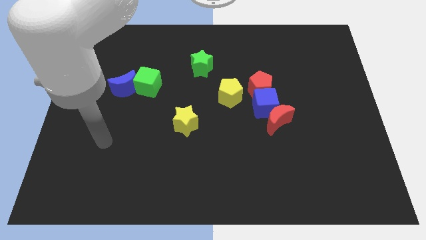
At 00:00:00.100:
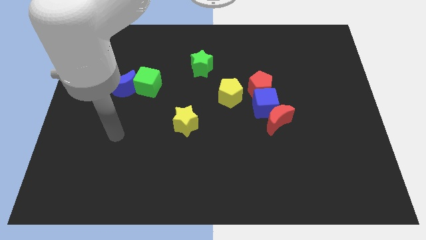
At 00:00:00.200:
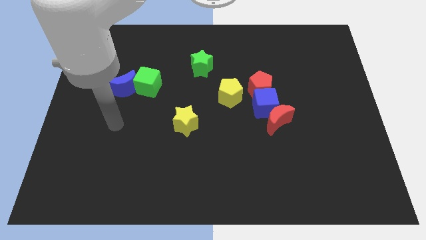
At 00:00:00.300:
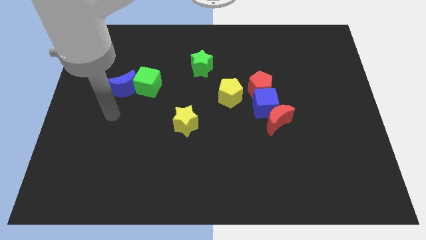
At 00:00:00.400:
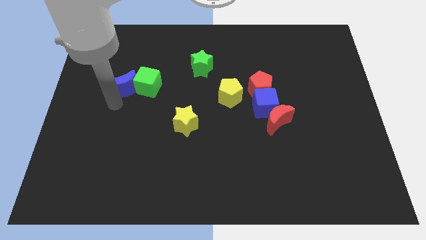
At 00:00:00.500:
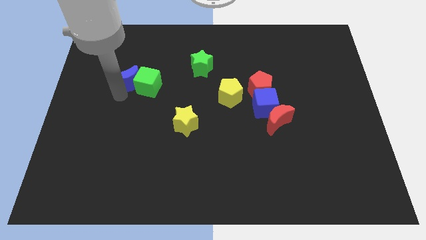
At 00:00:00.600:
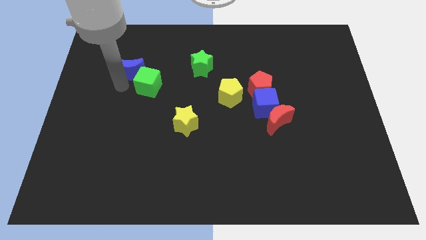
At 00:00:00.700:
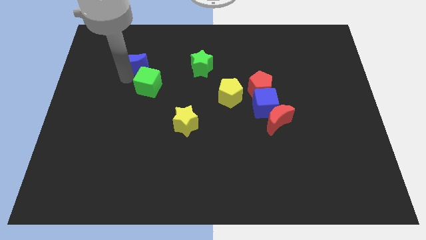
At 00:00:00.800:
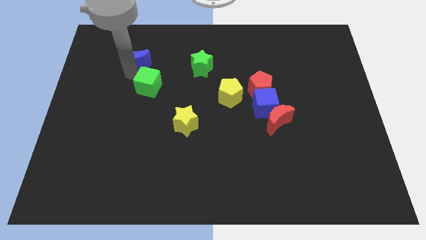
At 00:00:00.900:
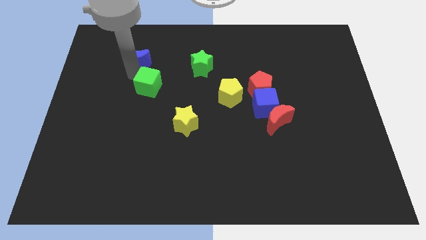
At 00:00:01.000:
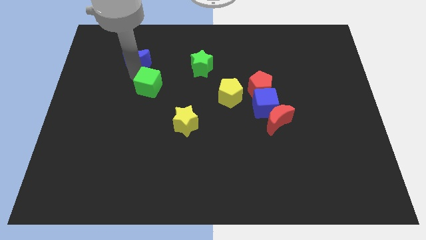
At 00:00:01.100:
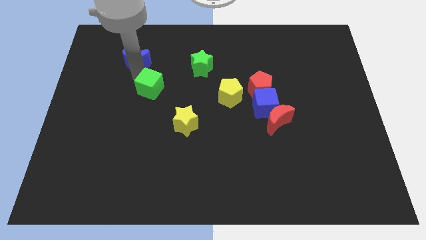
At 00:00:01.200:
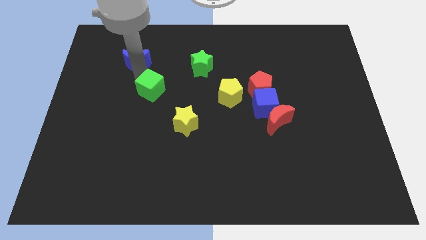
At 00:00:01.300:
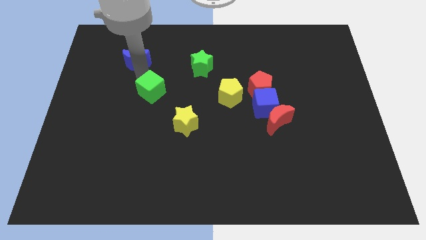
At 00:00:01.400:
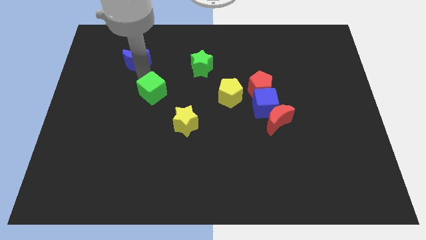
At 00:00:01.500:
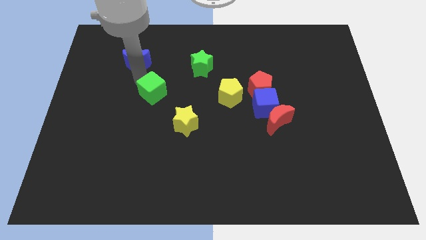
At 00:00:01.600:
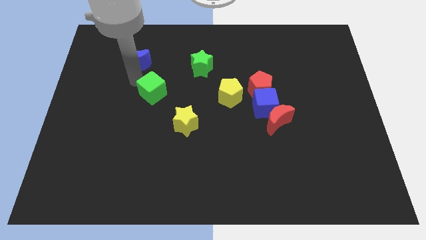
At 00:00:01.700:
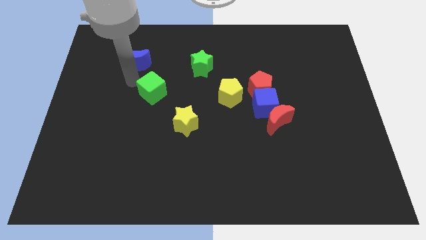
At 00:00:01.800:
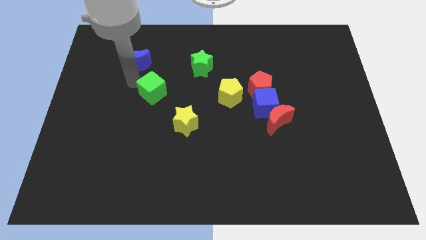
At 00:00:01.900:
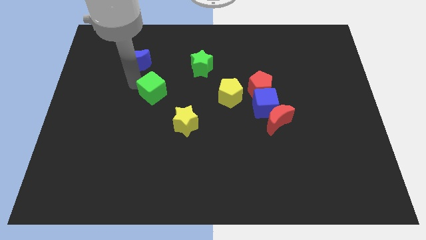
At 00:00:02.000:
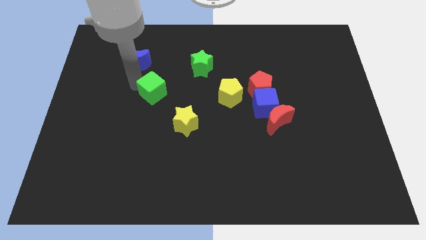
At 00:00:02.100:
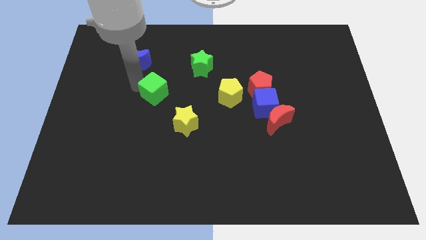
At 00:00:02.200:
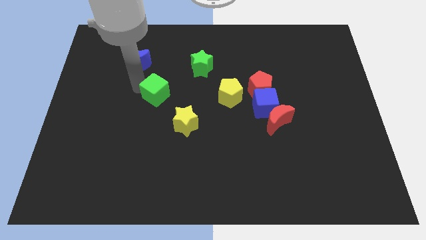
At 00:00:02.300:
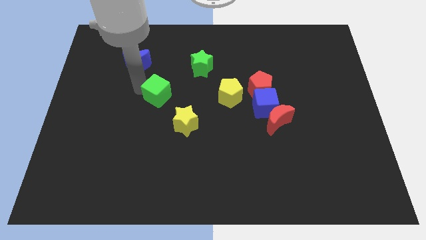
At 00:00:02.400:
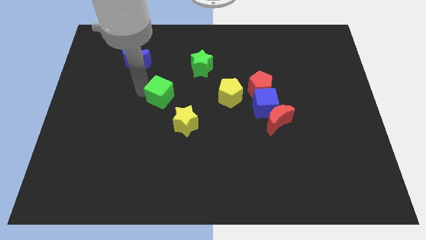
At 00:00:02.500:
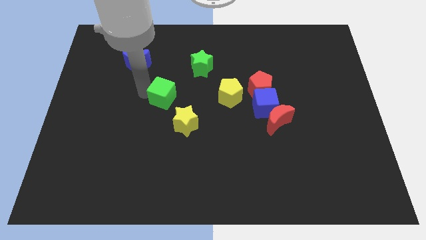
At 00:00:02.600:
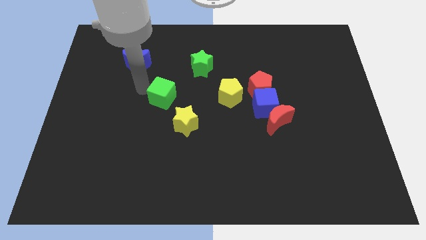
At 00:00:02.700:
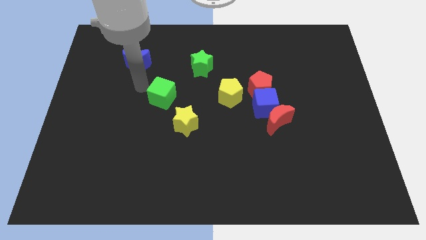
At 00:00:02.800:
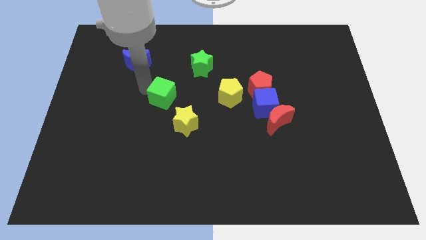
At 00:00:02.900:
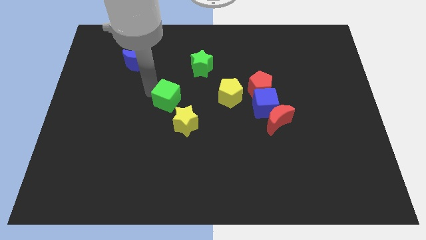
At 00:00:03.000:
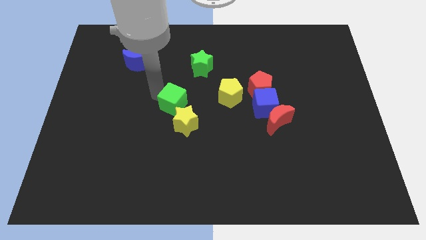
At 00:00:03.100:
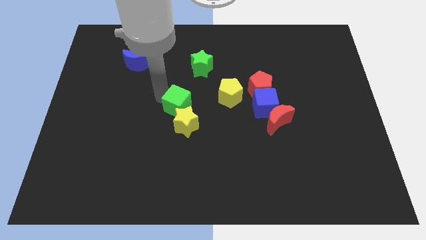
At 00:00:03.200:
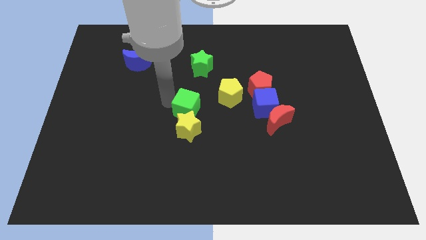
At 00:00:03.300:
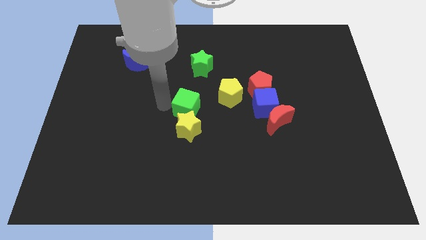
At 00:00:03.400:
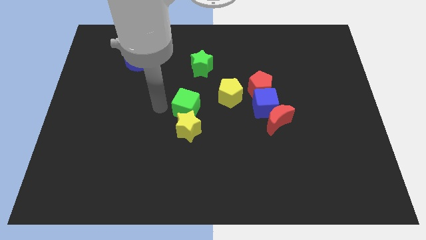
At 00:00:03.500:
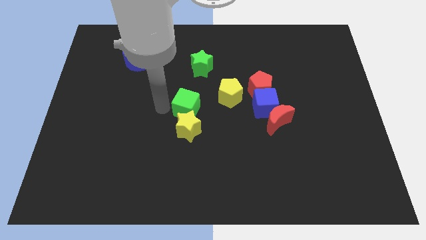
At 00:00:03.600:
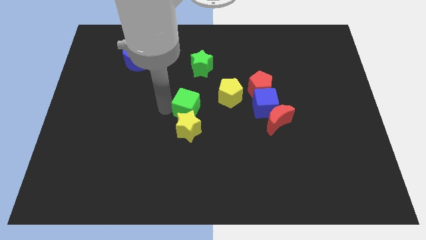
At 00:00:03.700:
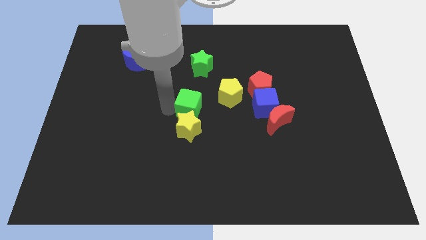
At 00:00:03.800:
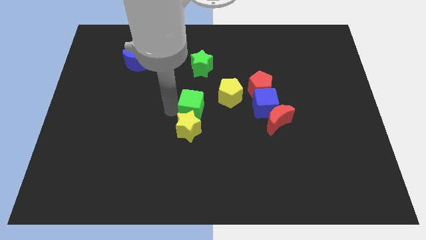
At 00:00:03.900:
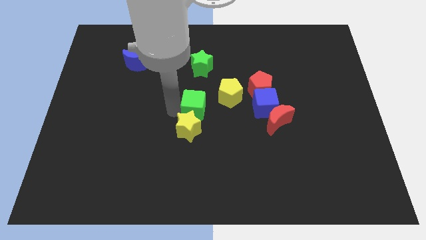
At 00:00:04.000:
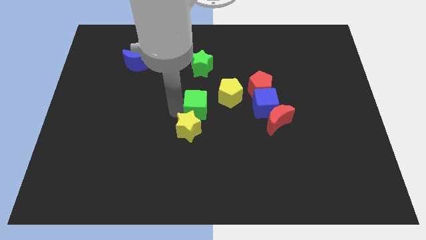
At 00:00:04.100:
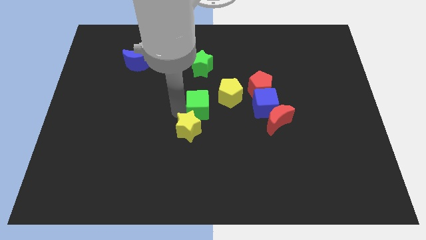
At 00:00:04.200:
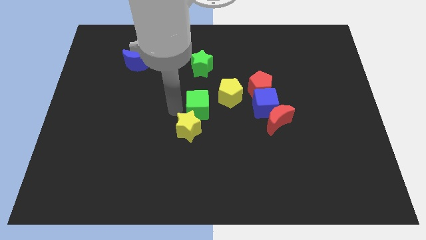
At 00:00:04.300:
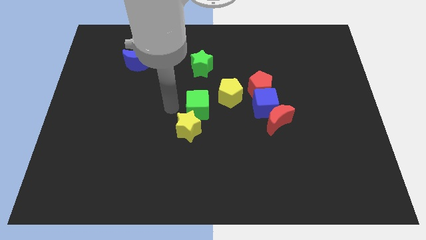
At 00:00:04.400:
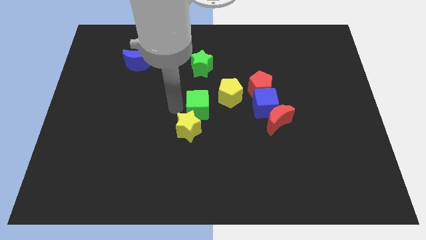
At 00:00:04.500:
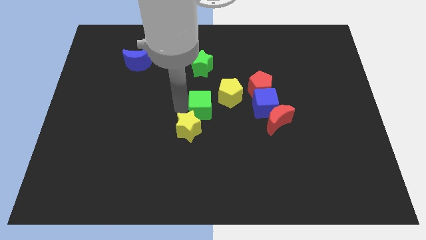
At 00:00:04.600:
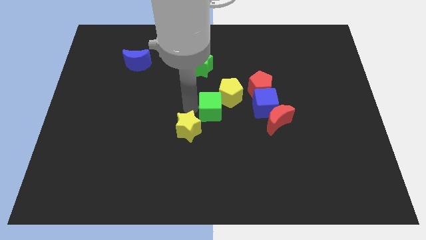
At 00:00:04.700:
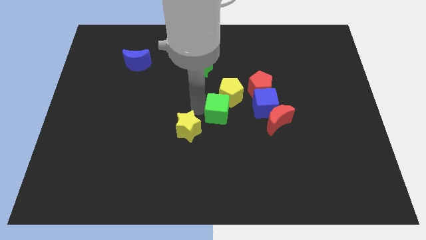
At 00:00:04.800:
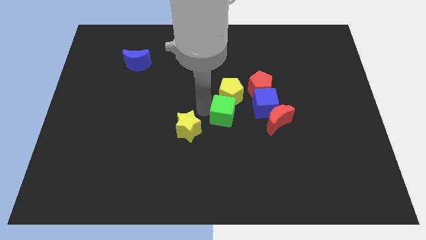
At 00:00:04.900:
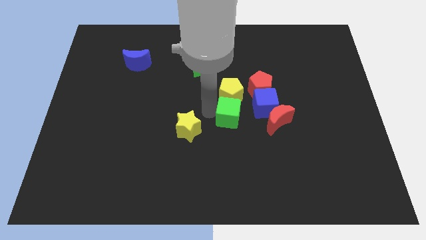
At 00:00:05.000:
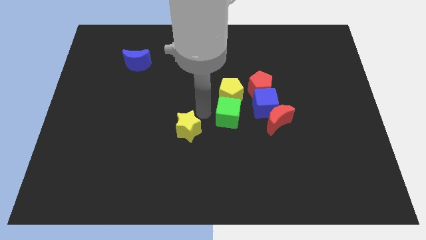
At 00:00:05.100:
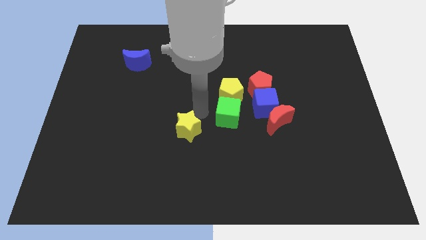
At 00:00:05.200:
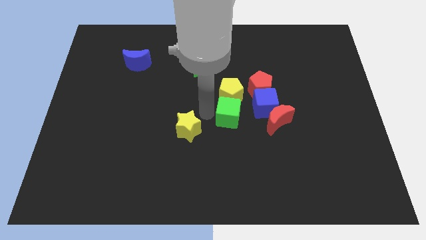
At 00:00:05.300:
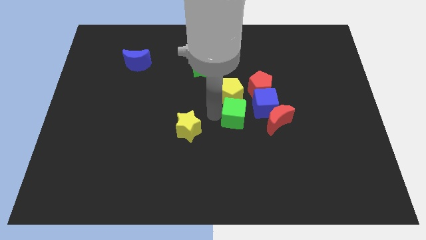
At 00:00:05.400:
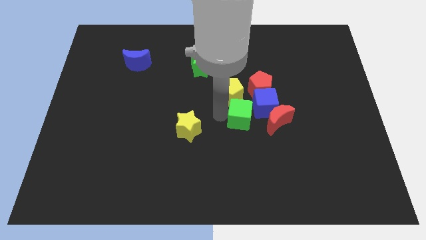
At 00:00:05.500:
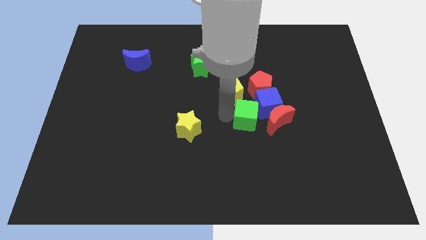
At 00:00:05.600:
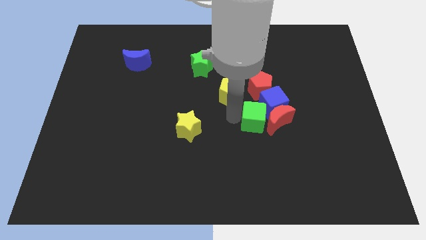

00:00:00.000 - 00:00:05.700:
push the green cube close to the red moon

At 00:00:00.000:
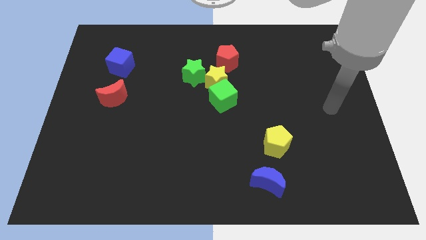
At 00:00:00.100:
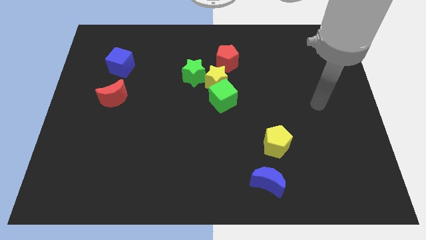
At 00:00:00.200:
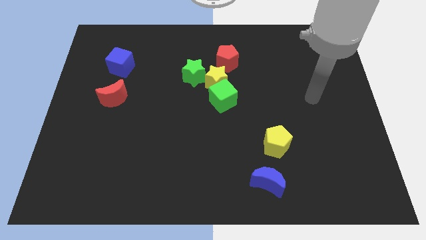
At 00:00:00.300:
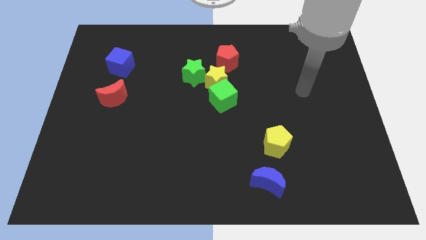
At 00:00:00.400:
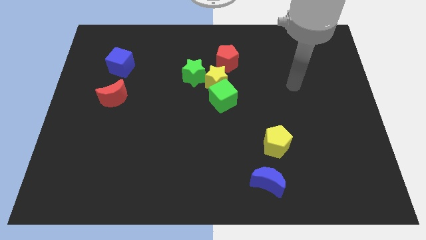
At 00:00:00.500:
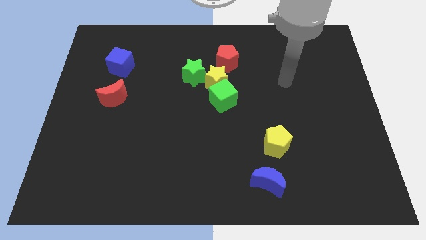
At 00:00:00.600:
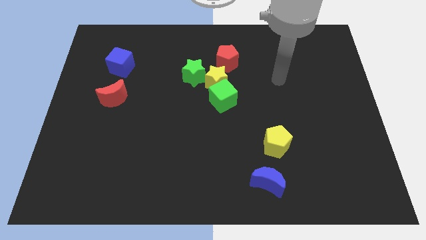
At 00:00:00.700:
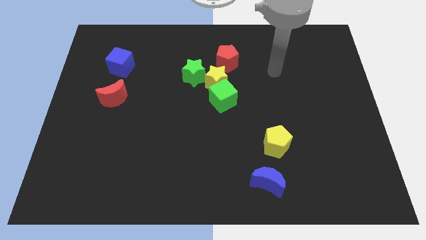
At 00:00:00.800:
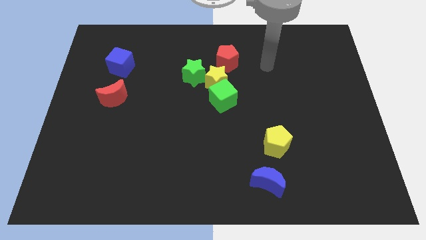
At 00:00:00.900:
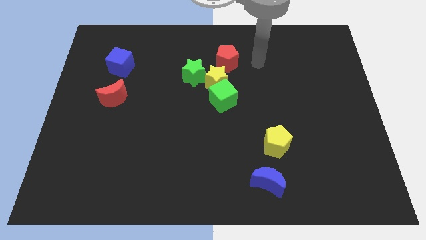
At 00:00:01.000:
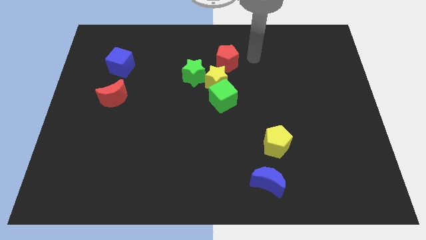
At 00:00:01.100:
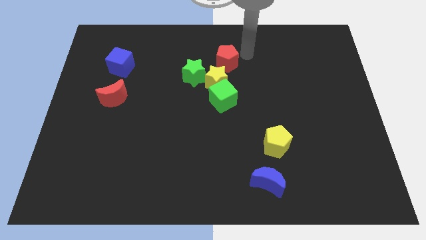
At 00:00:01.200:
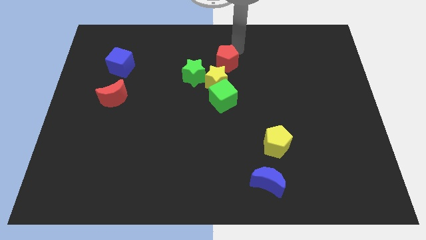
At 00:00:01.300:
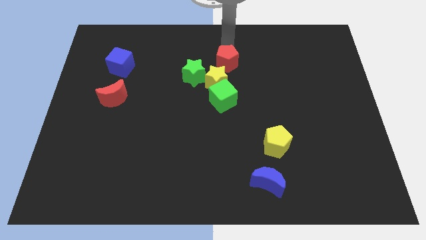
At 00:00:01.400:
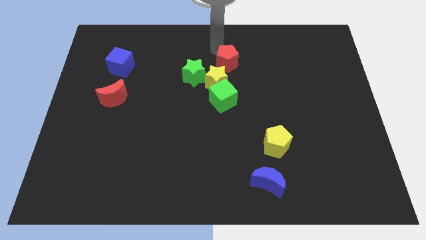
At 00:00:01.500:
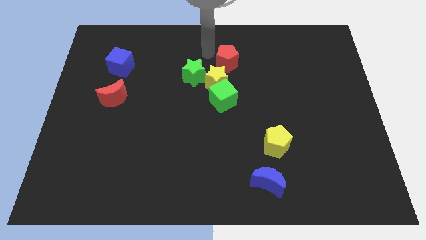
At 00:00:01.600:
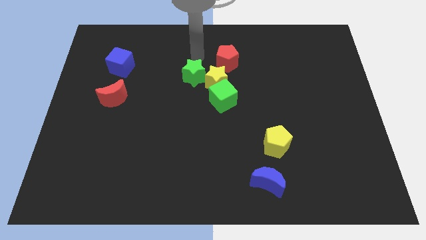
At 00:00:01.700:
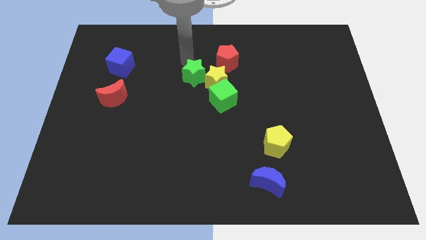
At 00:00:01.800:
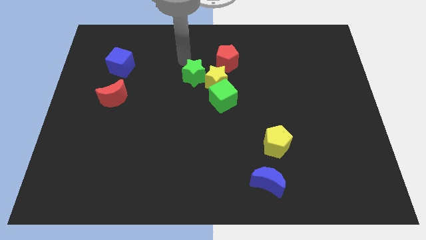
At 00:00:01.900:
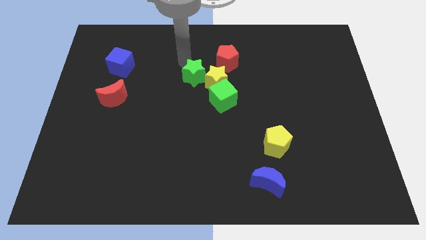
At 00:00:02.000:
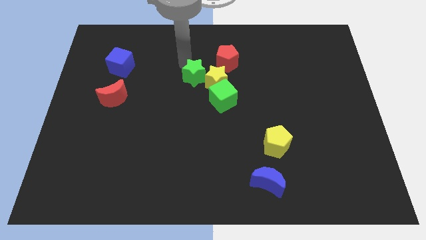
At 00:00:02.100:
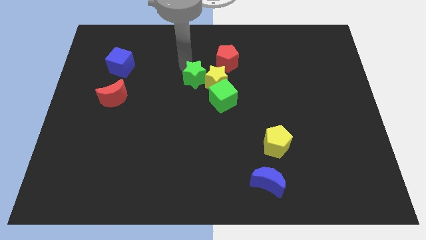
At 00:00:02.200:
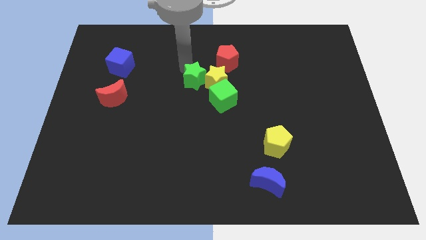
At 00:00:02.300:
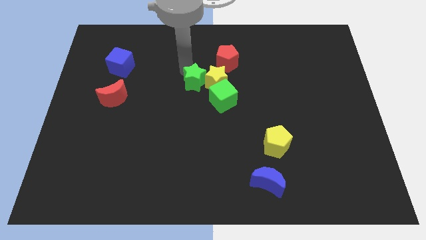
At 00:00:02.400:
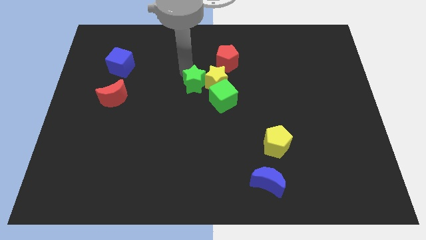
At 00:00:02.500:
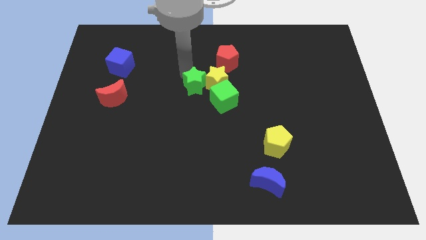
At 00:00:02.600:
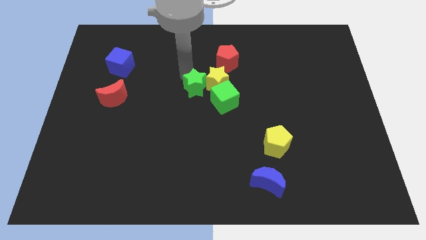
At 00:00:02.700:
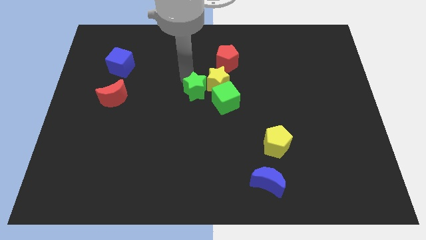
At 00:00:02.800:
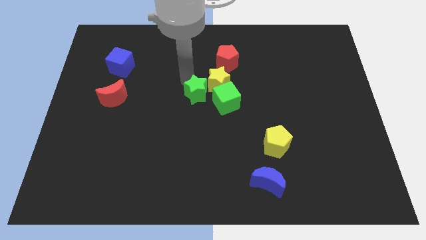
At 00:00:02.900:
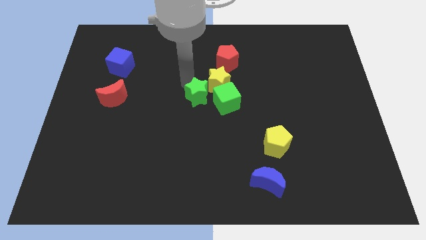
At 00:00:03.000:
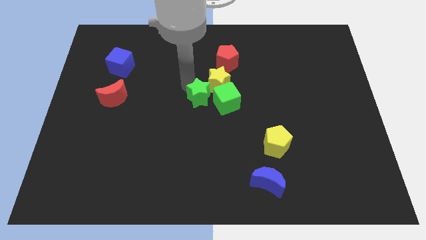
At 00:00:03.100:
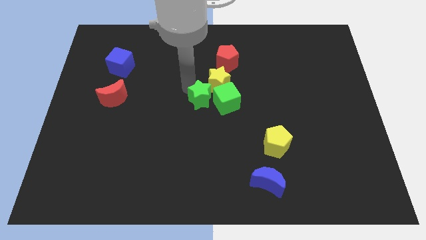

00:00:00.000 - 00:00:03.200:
put the green star next to the green cube
